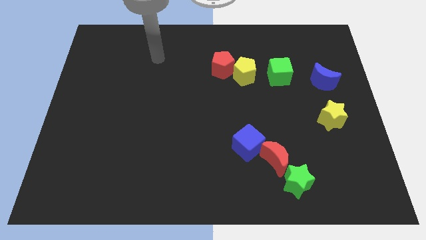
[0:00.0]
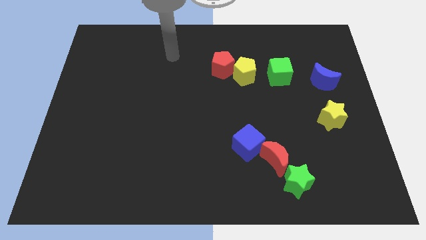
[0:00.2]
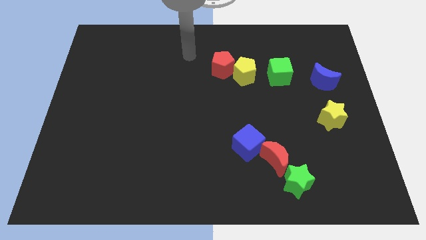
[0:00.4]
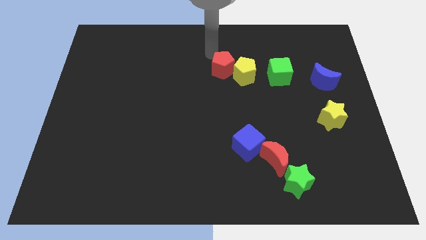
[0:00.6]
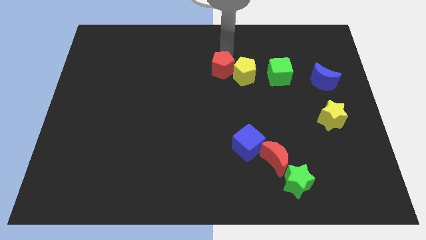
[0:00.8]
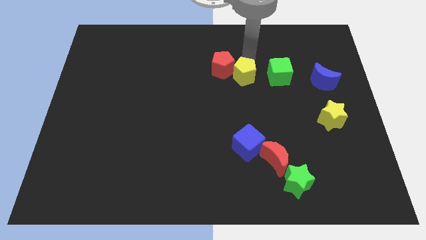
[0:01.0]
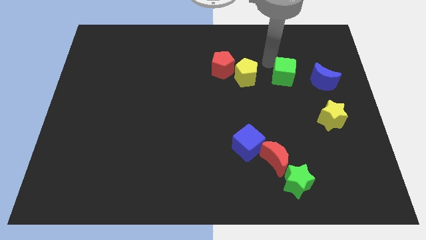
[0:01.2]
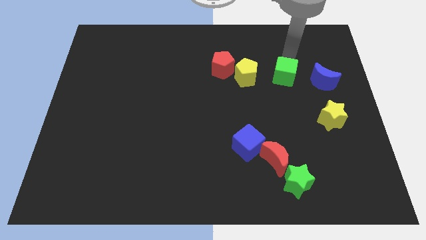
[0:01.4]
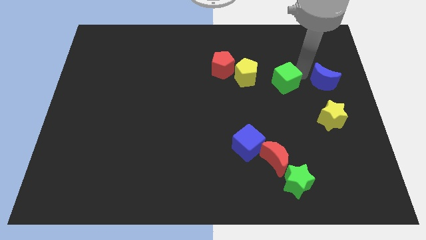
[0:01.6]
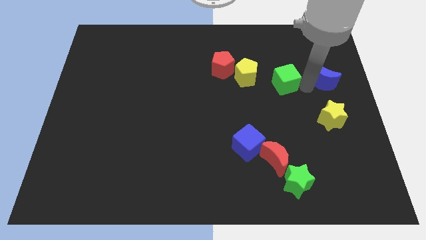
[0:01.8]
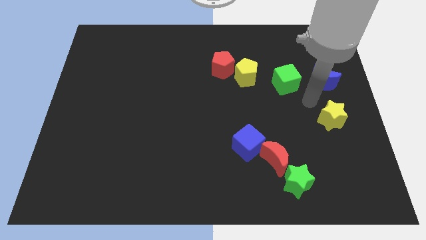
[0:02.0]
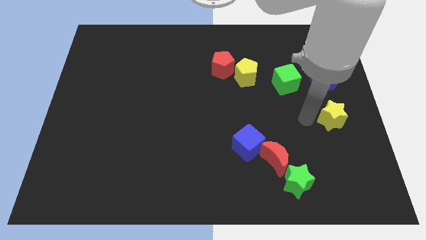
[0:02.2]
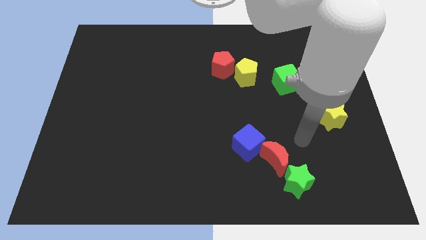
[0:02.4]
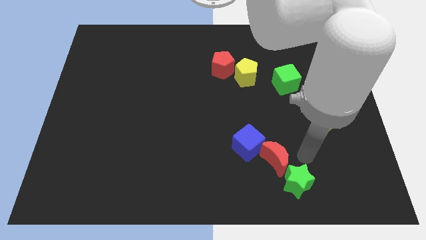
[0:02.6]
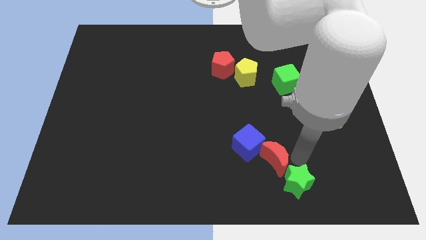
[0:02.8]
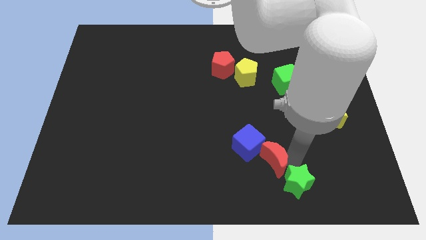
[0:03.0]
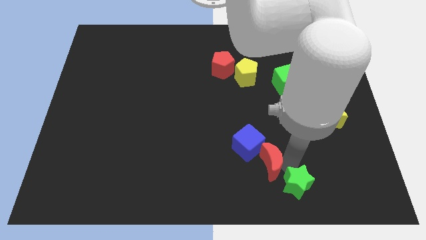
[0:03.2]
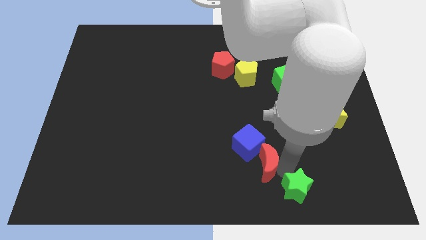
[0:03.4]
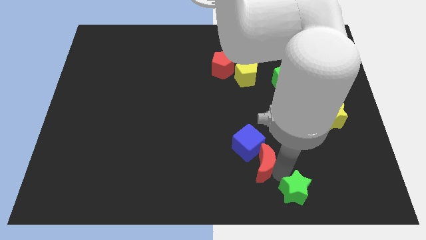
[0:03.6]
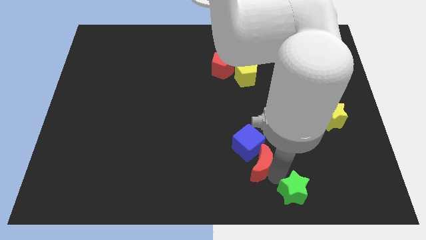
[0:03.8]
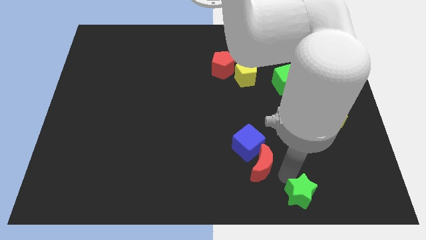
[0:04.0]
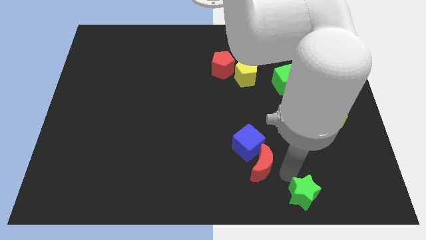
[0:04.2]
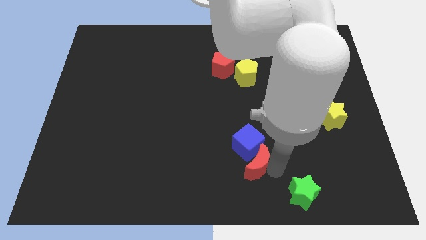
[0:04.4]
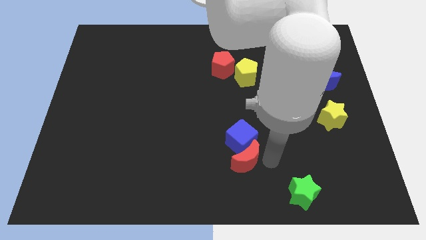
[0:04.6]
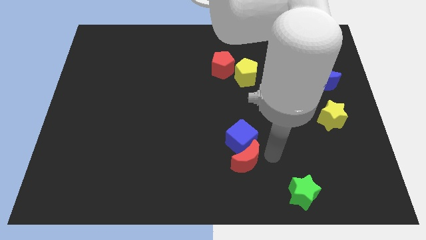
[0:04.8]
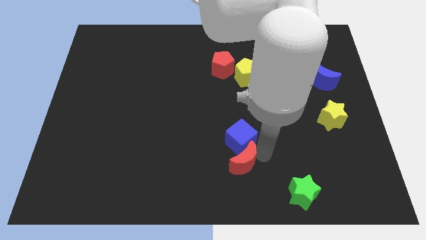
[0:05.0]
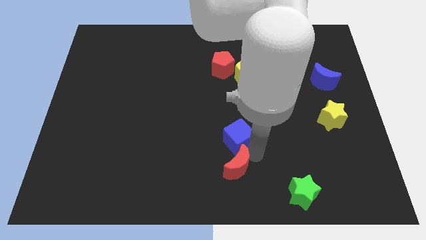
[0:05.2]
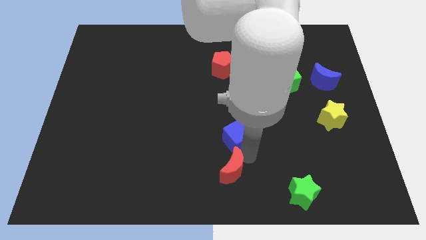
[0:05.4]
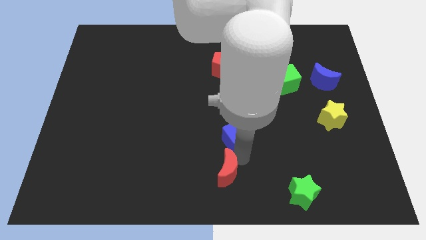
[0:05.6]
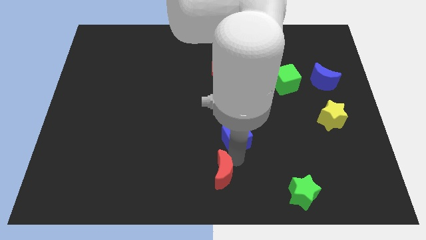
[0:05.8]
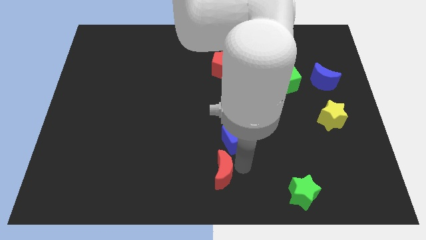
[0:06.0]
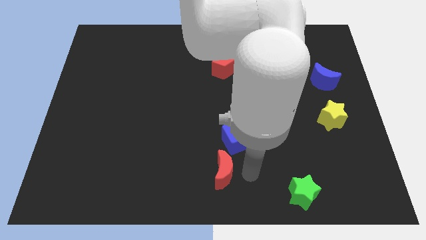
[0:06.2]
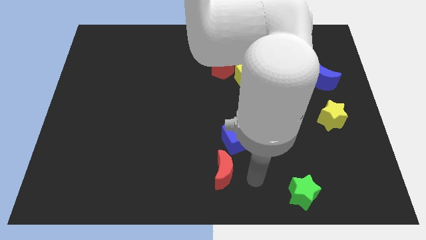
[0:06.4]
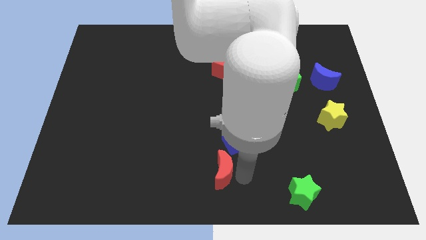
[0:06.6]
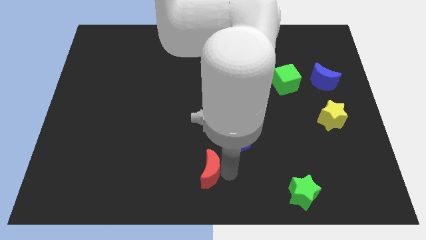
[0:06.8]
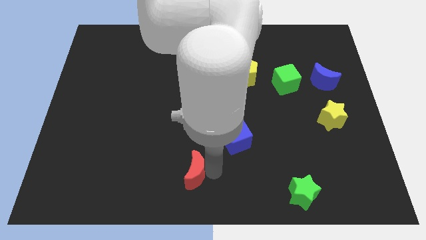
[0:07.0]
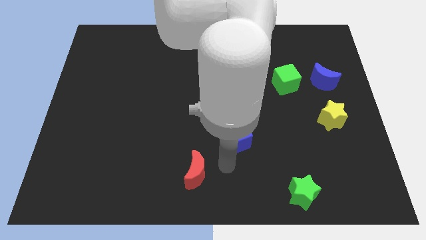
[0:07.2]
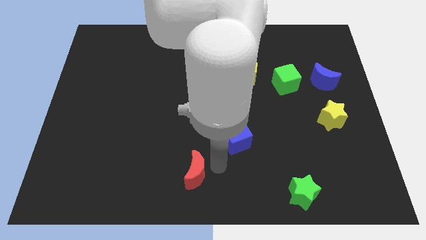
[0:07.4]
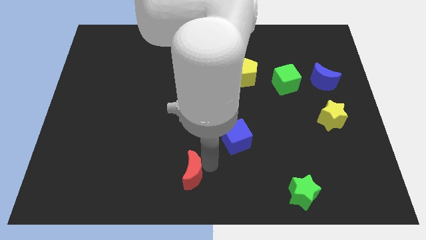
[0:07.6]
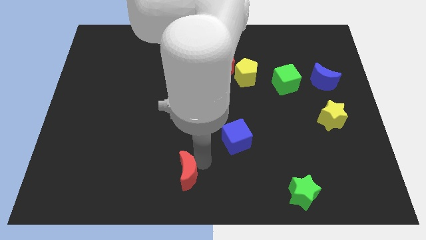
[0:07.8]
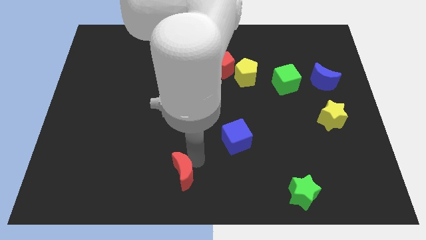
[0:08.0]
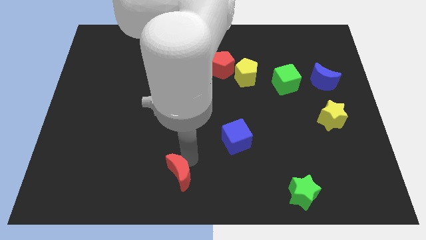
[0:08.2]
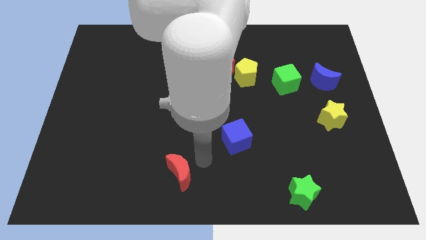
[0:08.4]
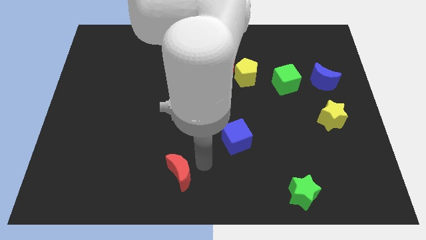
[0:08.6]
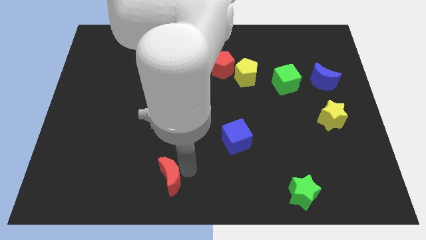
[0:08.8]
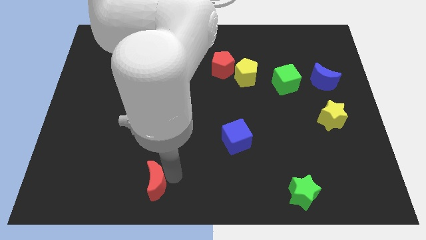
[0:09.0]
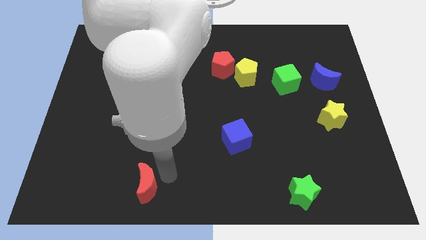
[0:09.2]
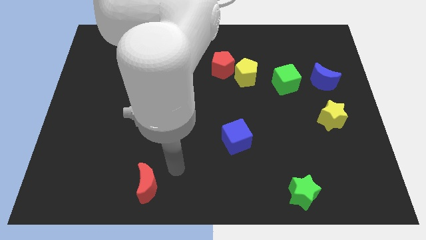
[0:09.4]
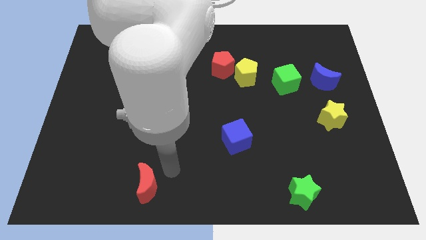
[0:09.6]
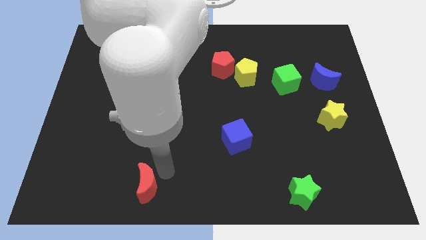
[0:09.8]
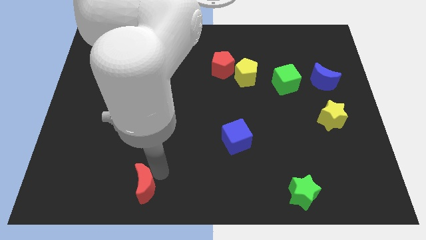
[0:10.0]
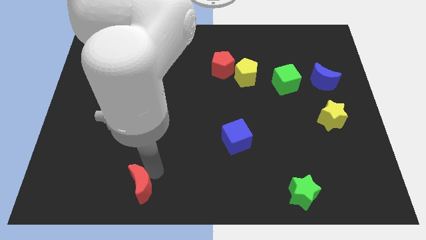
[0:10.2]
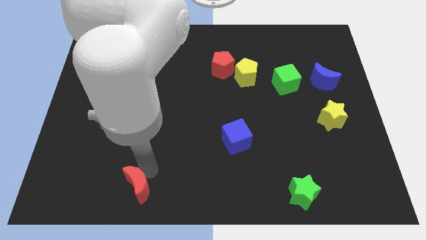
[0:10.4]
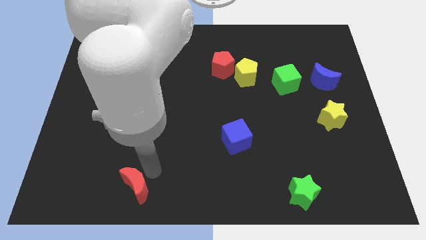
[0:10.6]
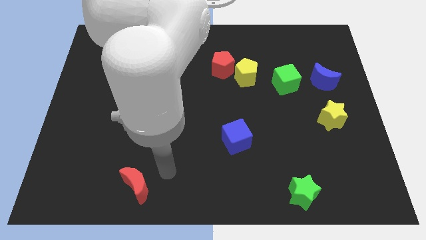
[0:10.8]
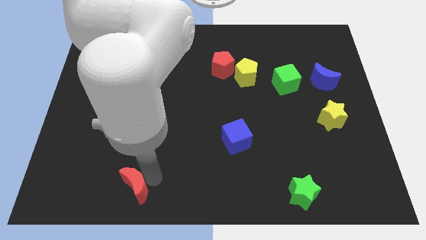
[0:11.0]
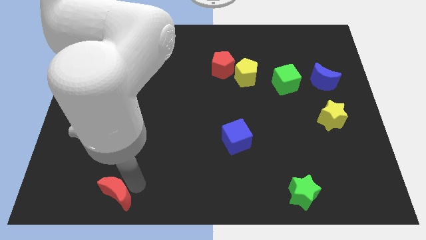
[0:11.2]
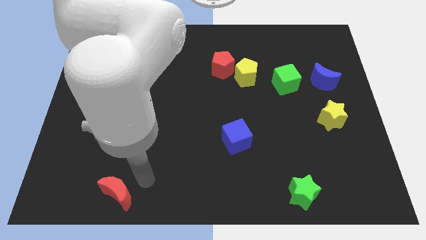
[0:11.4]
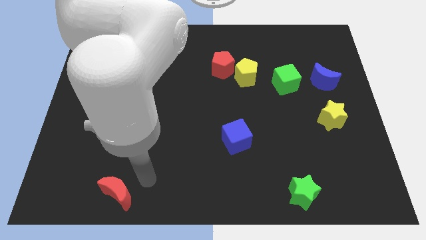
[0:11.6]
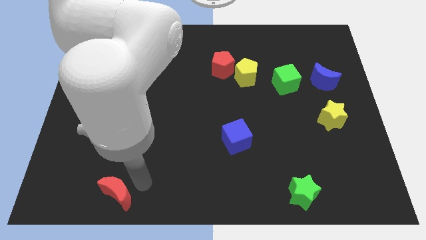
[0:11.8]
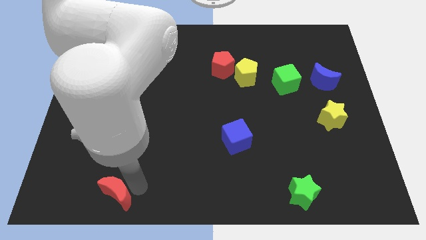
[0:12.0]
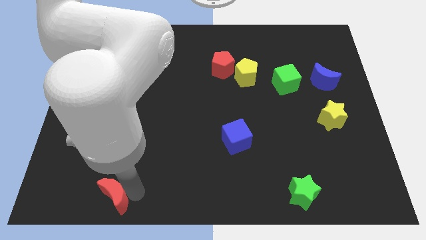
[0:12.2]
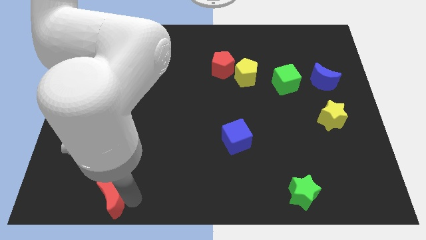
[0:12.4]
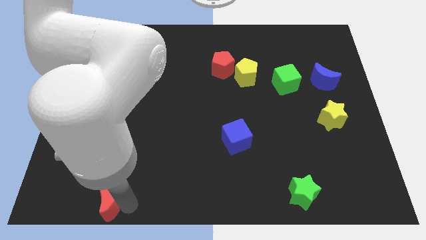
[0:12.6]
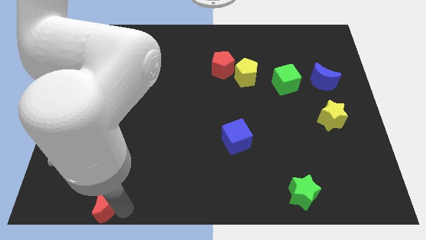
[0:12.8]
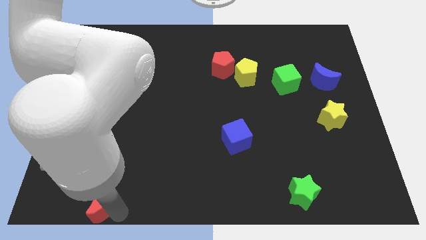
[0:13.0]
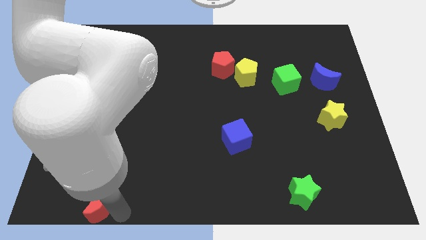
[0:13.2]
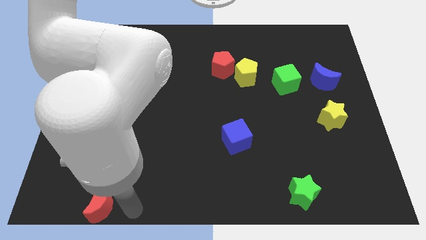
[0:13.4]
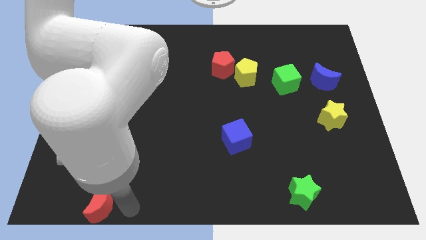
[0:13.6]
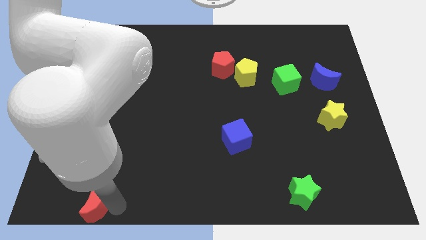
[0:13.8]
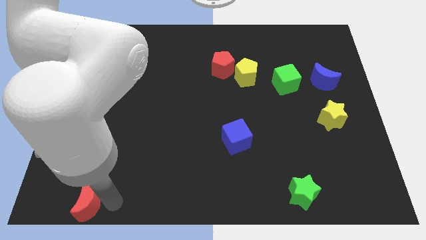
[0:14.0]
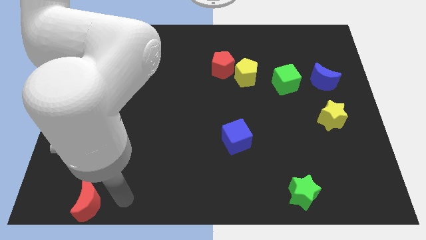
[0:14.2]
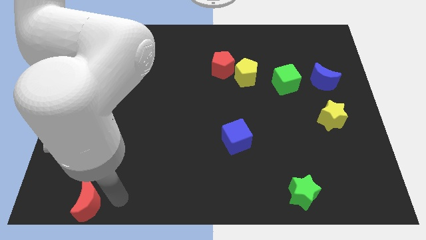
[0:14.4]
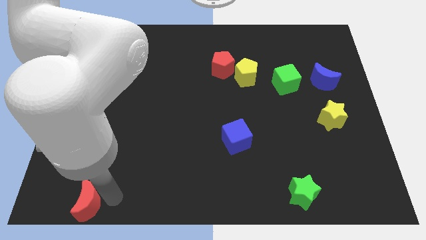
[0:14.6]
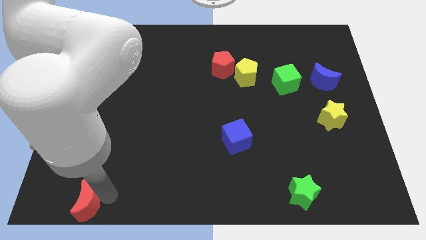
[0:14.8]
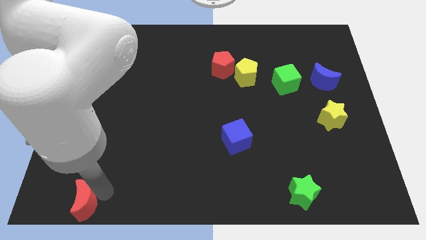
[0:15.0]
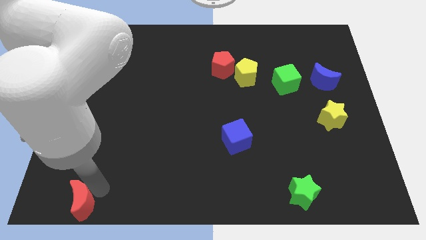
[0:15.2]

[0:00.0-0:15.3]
put the red moon to the bottom left corner
